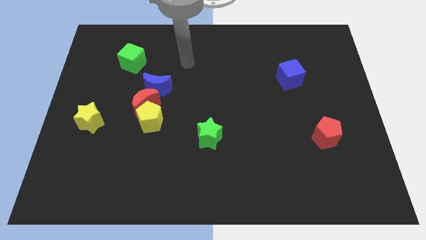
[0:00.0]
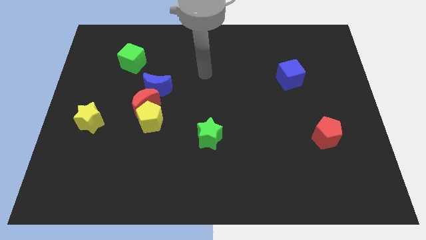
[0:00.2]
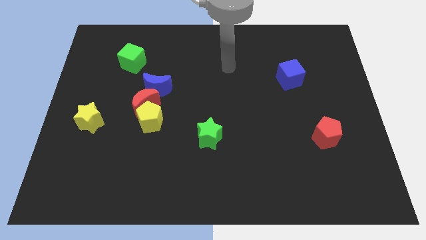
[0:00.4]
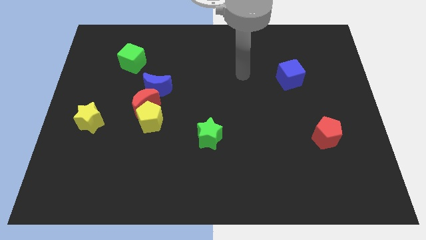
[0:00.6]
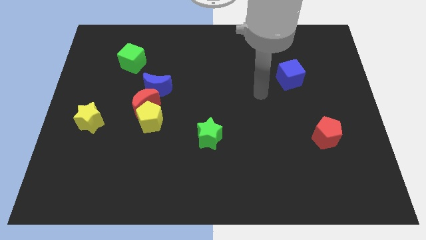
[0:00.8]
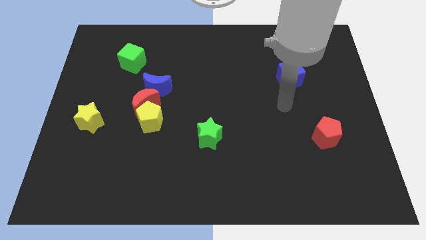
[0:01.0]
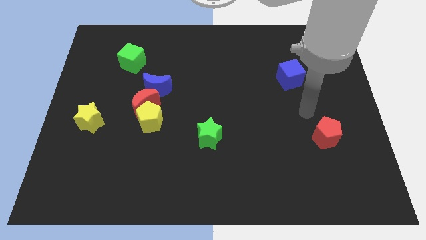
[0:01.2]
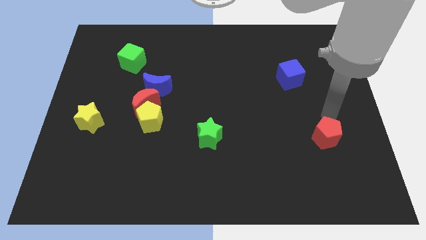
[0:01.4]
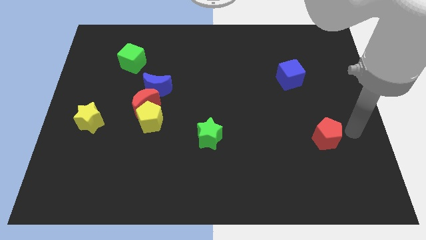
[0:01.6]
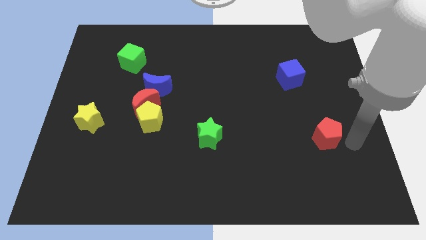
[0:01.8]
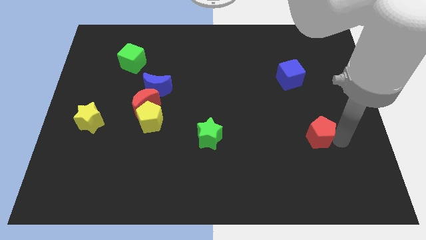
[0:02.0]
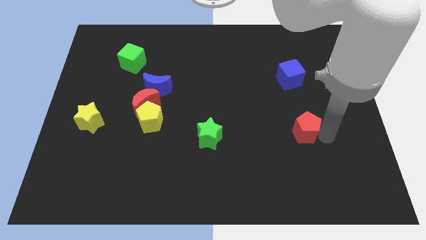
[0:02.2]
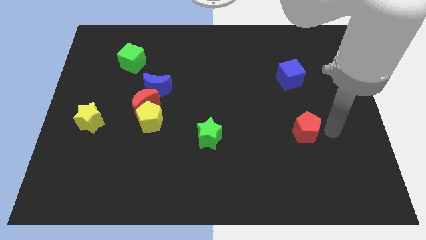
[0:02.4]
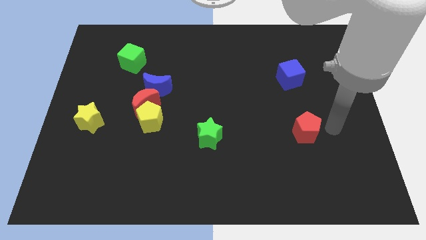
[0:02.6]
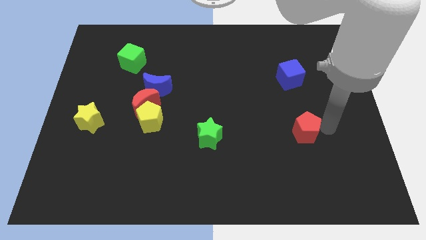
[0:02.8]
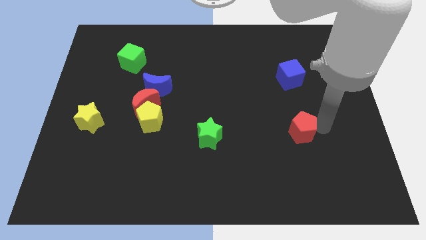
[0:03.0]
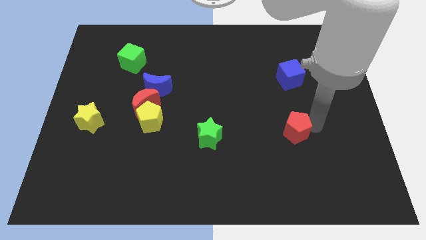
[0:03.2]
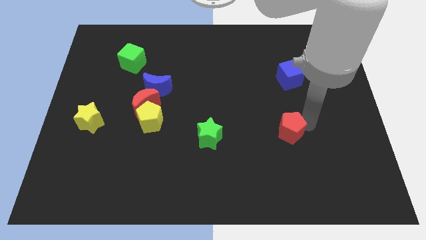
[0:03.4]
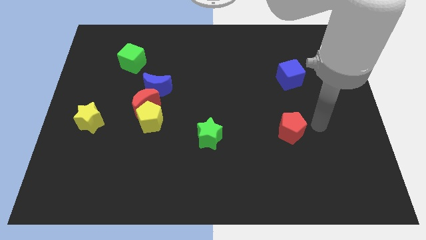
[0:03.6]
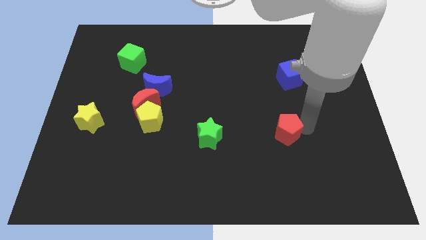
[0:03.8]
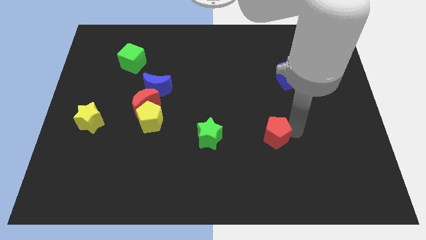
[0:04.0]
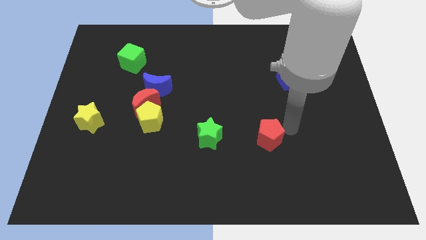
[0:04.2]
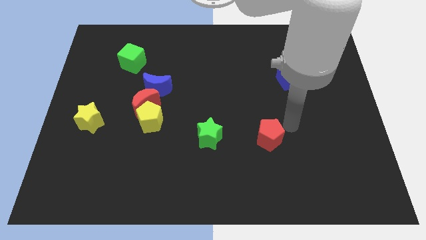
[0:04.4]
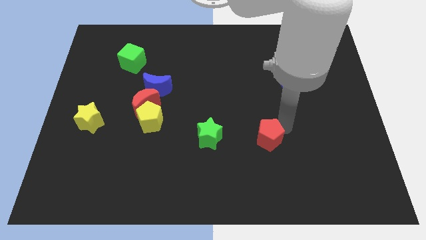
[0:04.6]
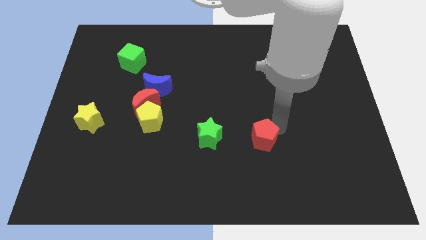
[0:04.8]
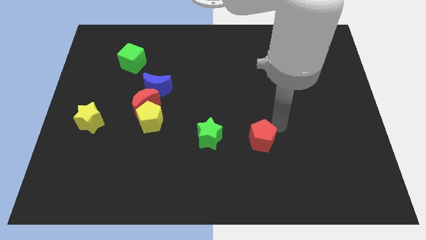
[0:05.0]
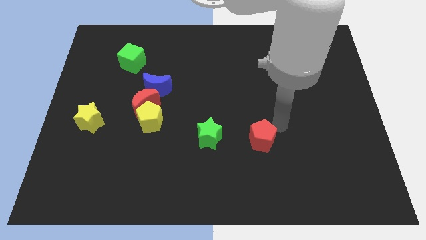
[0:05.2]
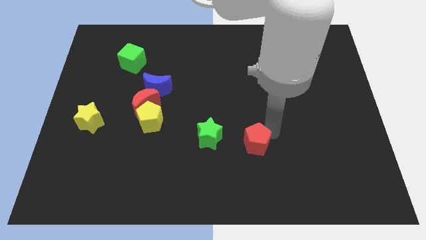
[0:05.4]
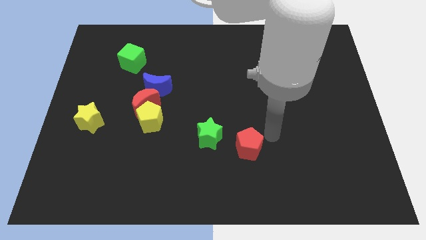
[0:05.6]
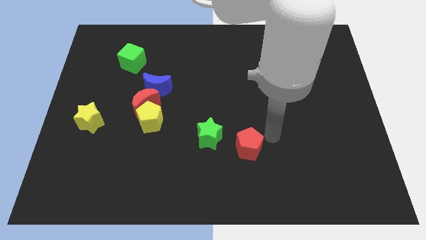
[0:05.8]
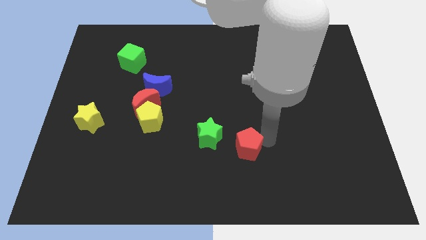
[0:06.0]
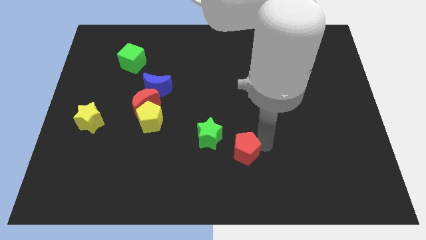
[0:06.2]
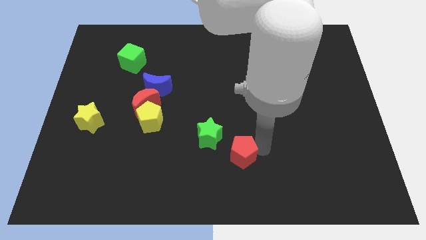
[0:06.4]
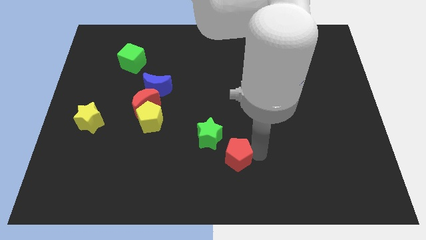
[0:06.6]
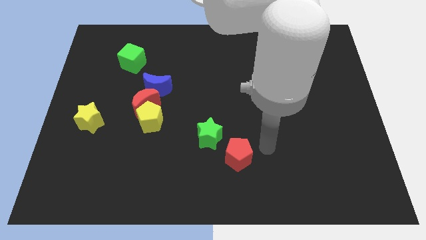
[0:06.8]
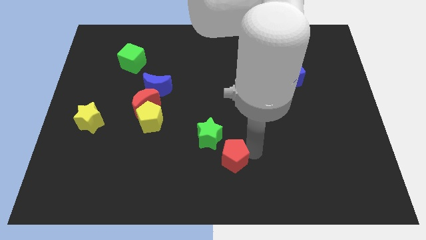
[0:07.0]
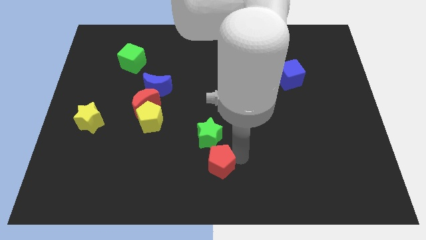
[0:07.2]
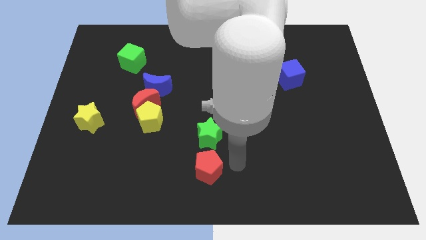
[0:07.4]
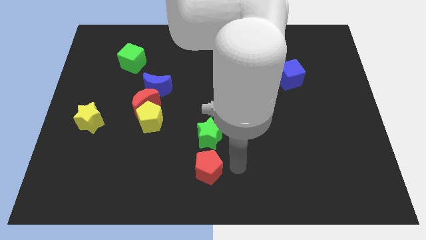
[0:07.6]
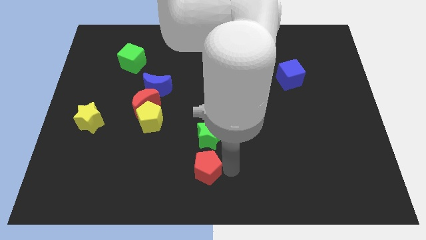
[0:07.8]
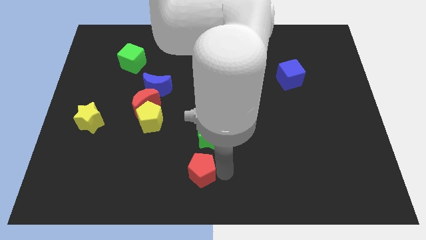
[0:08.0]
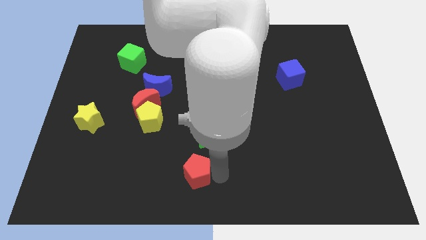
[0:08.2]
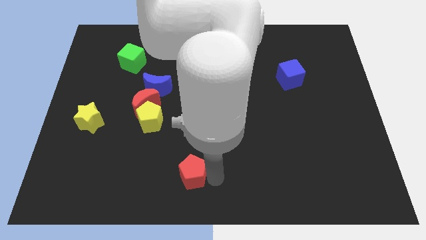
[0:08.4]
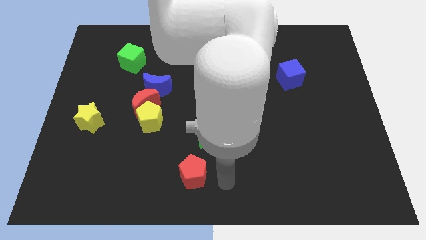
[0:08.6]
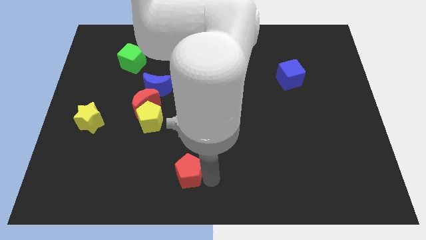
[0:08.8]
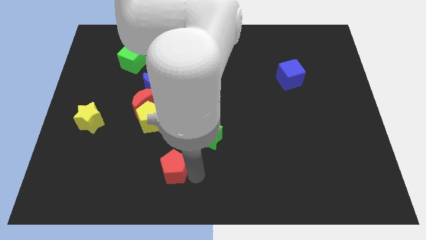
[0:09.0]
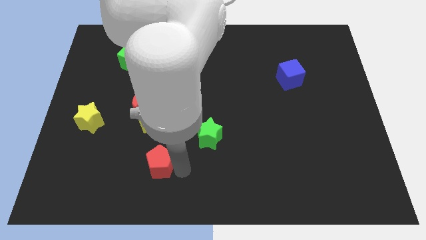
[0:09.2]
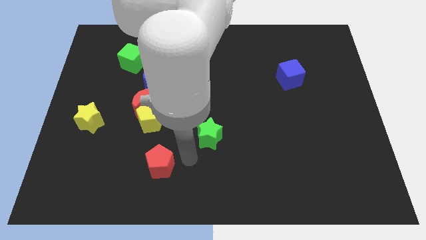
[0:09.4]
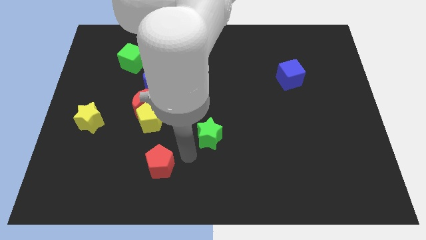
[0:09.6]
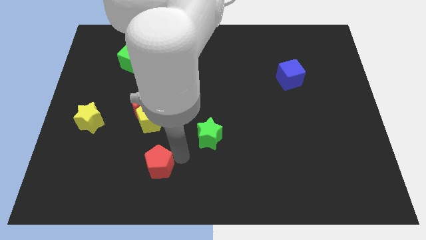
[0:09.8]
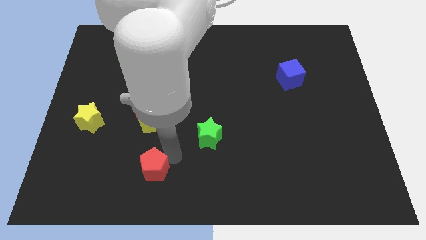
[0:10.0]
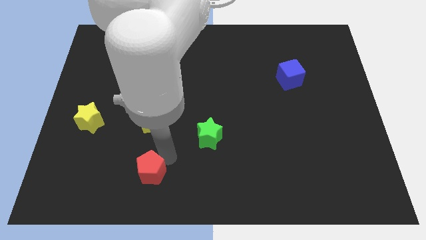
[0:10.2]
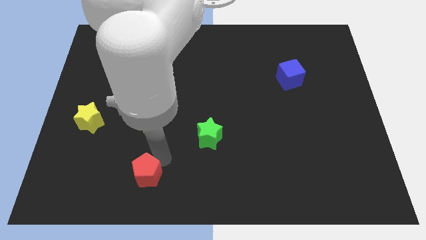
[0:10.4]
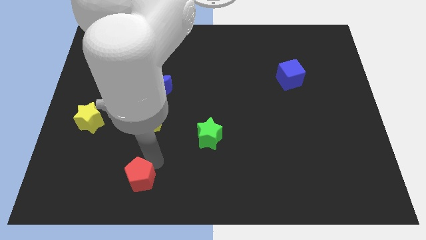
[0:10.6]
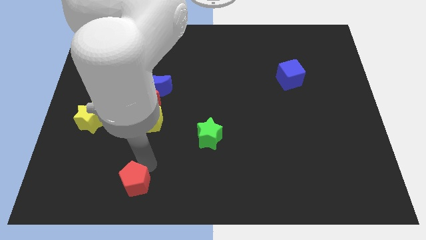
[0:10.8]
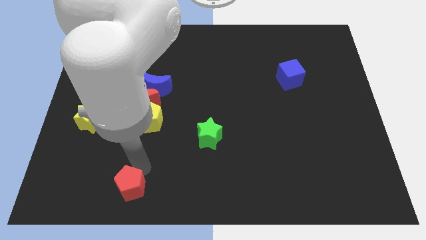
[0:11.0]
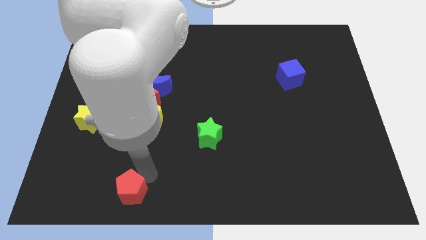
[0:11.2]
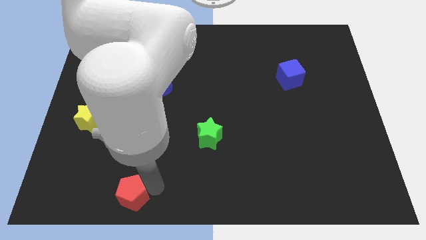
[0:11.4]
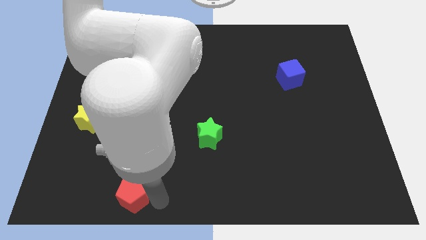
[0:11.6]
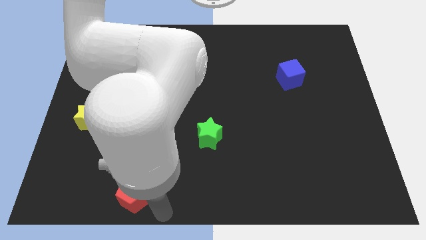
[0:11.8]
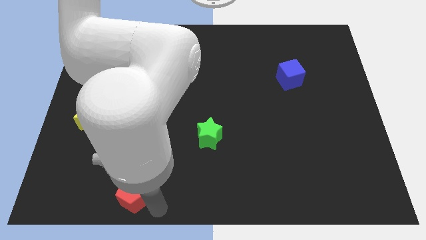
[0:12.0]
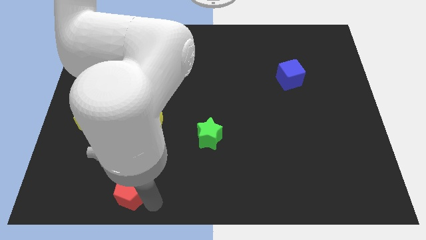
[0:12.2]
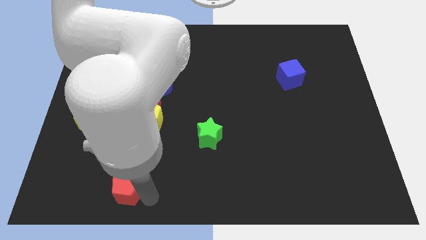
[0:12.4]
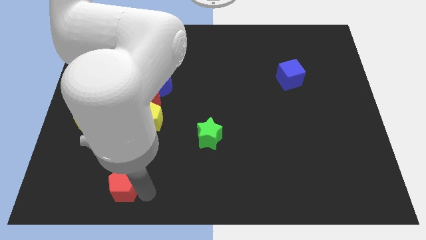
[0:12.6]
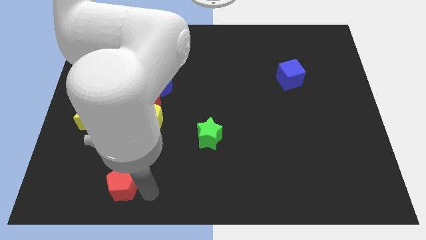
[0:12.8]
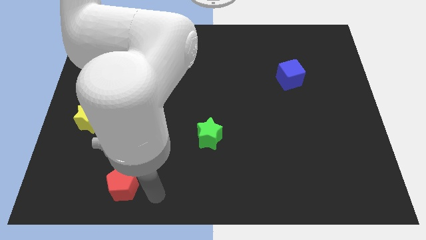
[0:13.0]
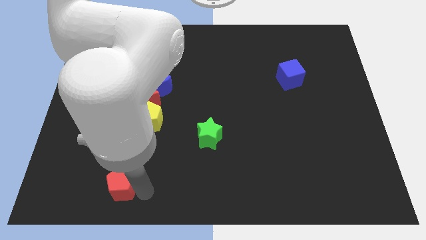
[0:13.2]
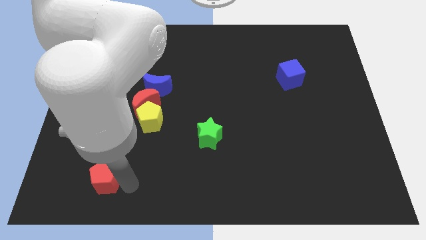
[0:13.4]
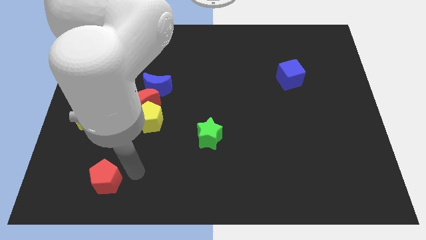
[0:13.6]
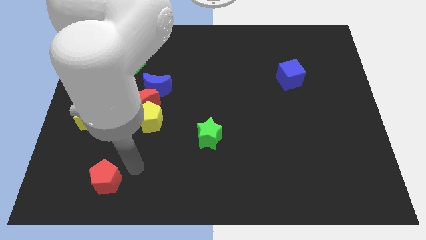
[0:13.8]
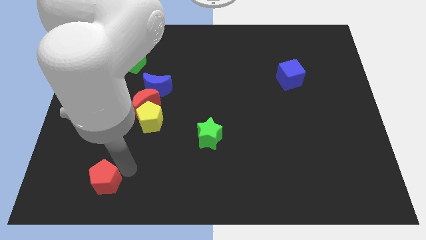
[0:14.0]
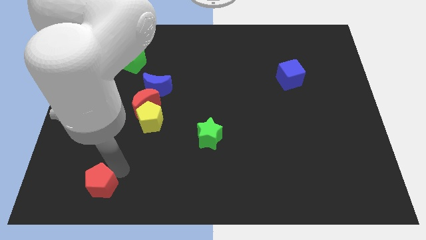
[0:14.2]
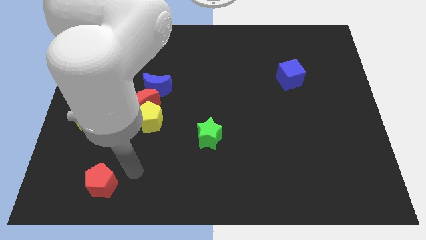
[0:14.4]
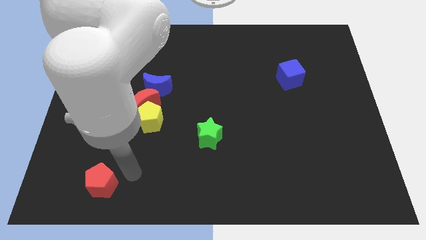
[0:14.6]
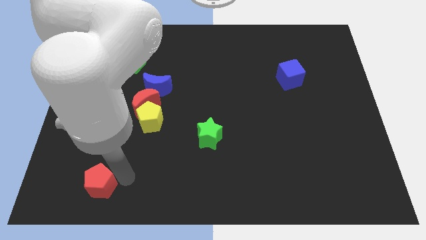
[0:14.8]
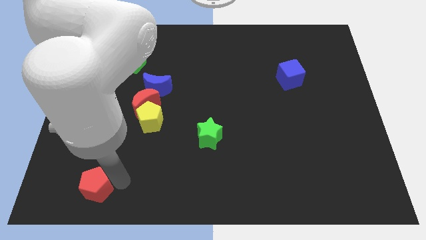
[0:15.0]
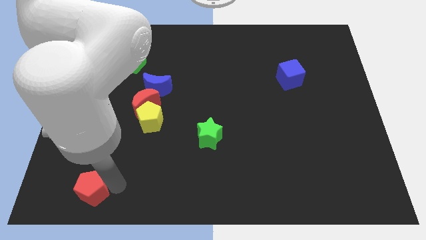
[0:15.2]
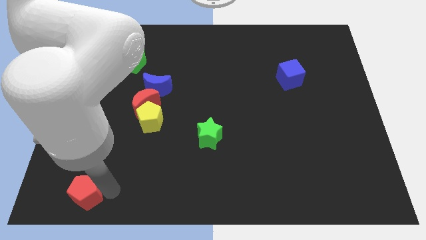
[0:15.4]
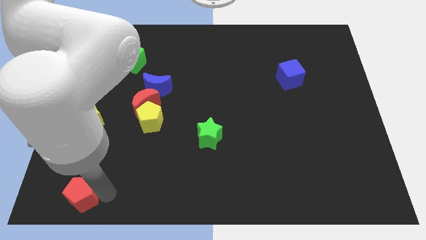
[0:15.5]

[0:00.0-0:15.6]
put the red pentagon to the lower left corner
